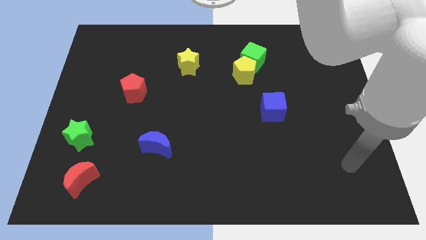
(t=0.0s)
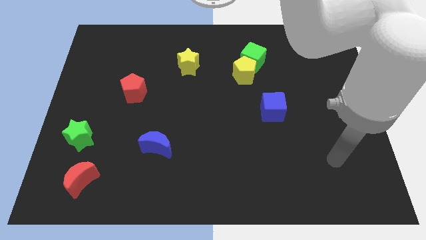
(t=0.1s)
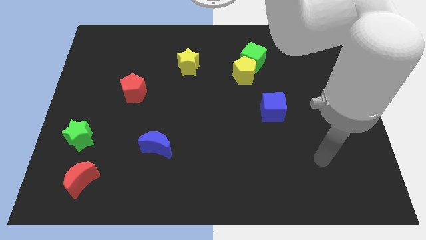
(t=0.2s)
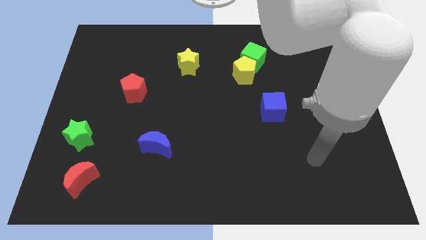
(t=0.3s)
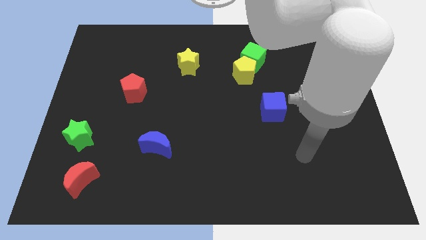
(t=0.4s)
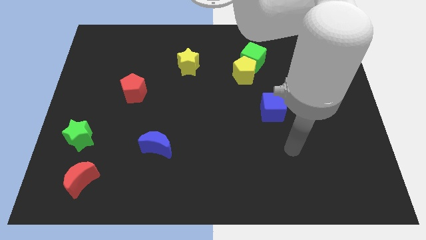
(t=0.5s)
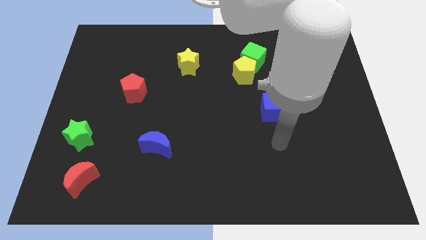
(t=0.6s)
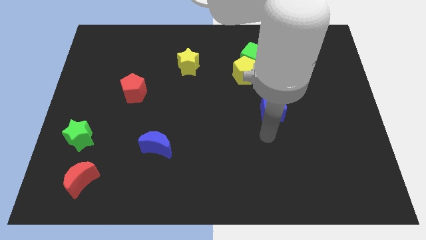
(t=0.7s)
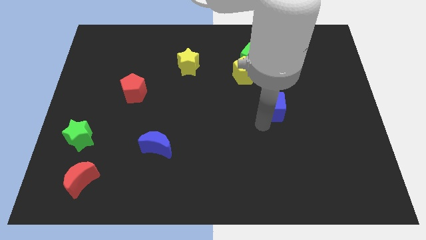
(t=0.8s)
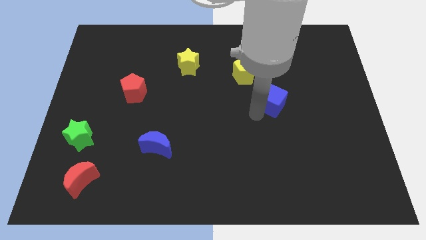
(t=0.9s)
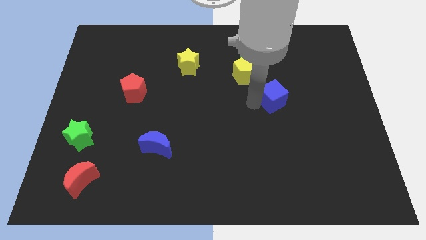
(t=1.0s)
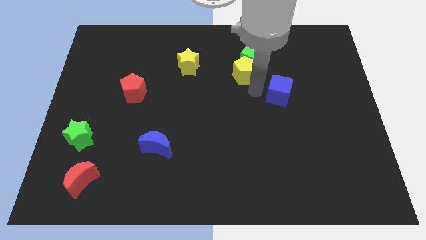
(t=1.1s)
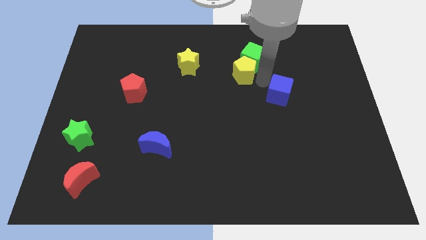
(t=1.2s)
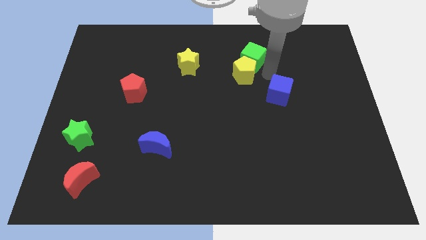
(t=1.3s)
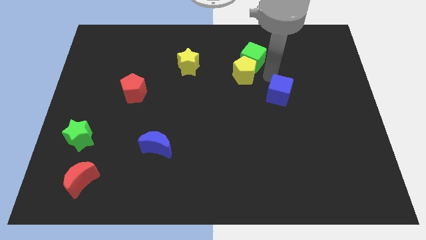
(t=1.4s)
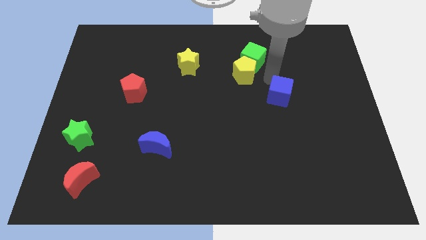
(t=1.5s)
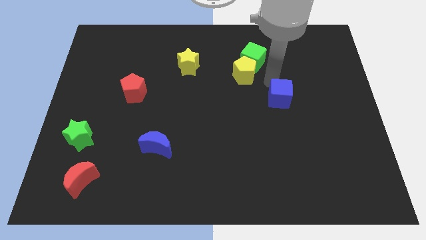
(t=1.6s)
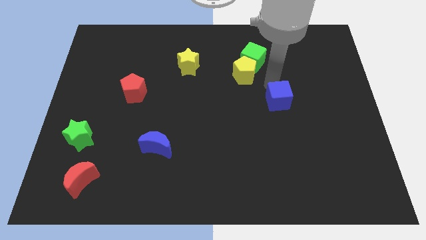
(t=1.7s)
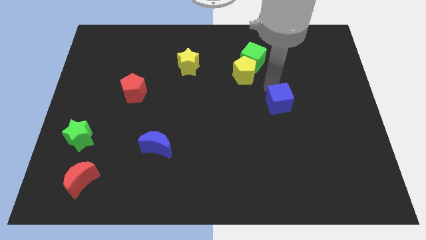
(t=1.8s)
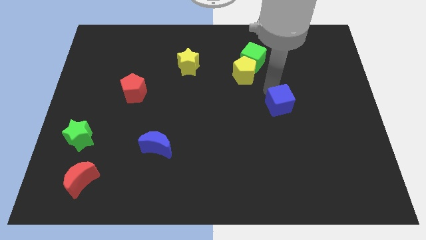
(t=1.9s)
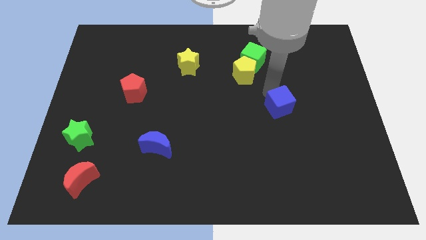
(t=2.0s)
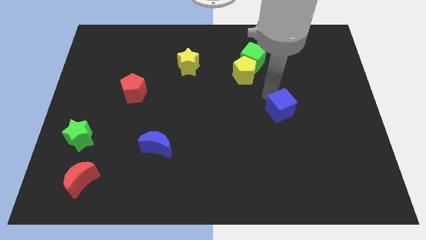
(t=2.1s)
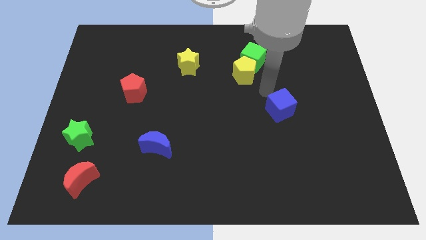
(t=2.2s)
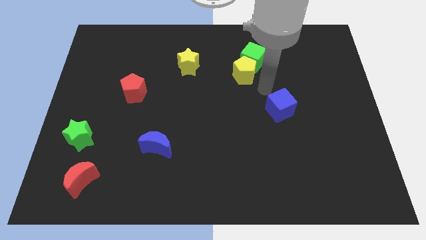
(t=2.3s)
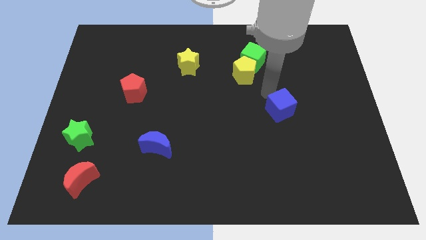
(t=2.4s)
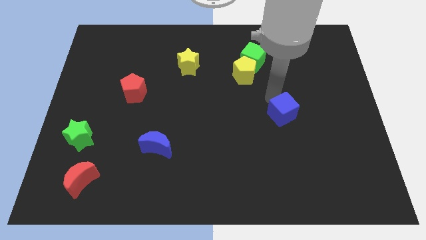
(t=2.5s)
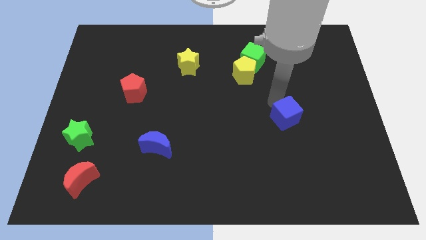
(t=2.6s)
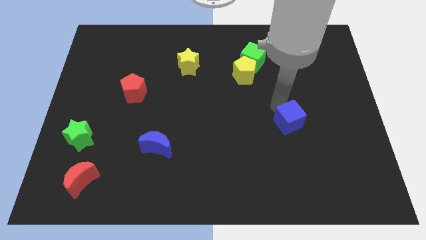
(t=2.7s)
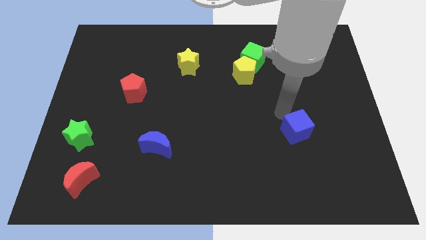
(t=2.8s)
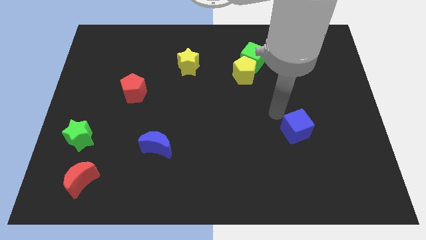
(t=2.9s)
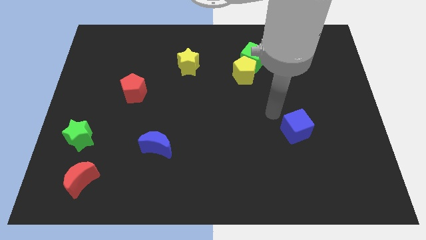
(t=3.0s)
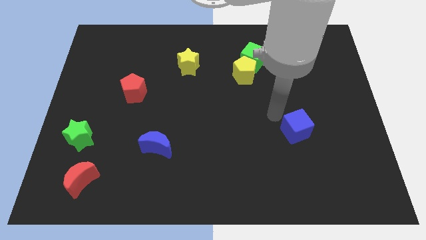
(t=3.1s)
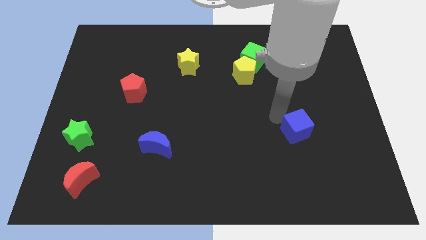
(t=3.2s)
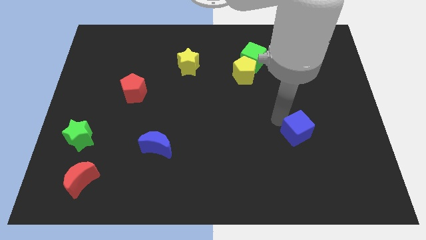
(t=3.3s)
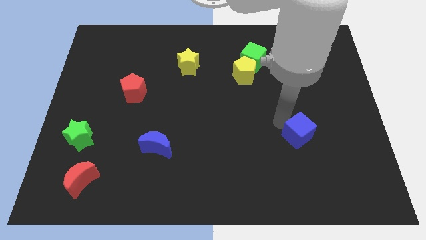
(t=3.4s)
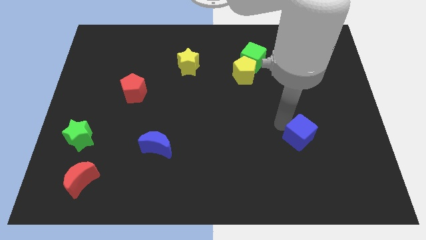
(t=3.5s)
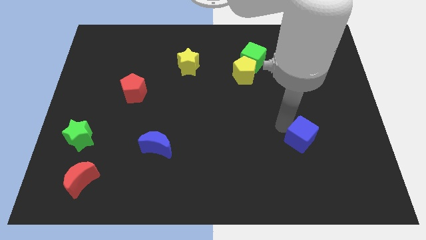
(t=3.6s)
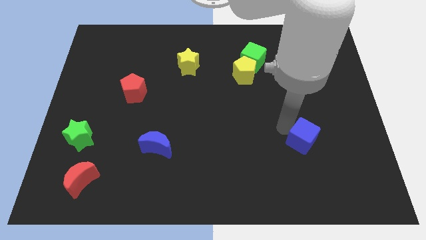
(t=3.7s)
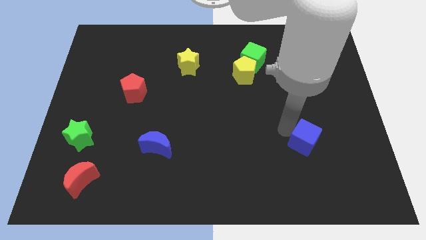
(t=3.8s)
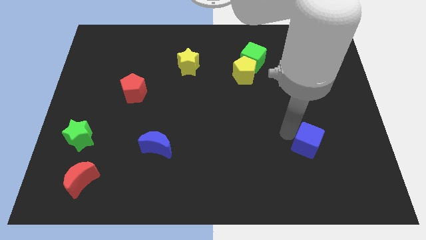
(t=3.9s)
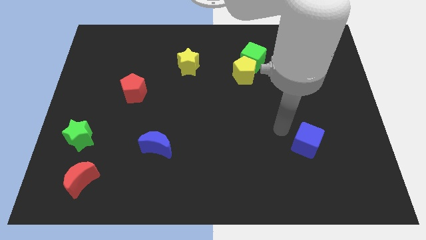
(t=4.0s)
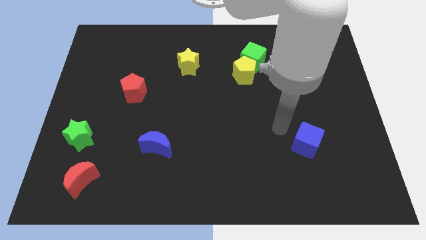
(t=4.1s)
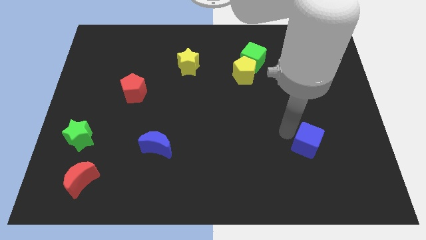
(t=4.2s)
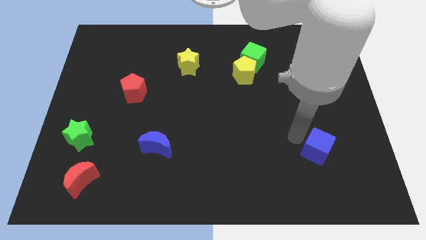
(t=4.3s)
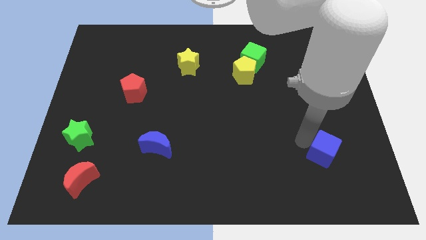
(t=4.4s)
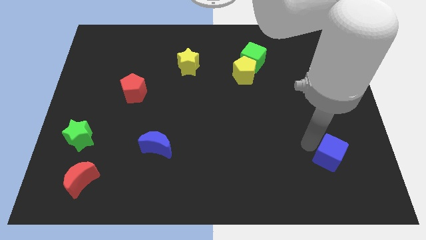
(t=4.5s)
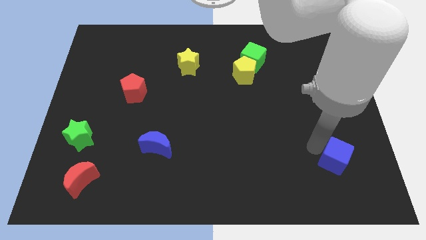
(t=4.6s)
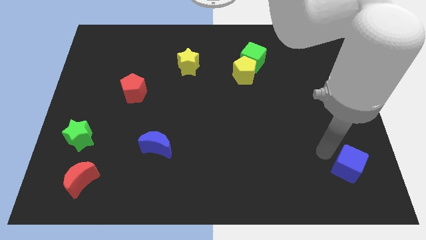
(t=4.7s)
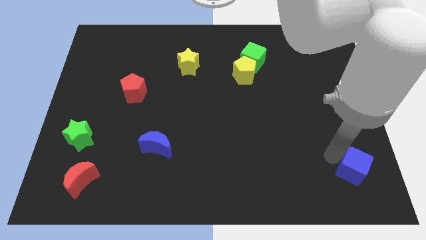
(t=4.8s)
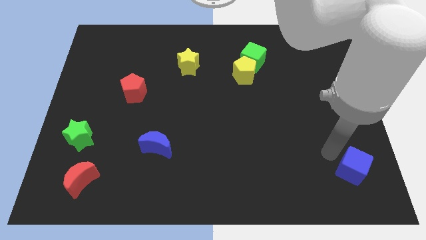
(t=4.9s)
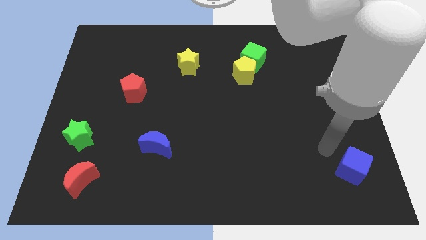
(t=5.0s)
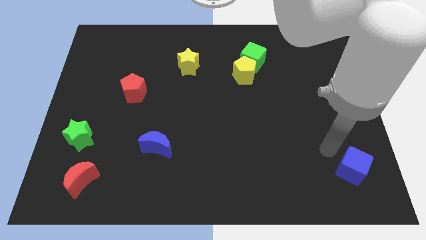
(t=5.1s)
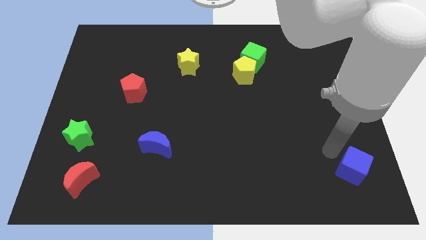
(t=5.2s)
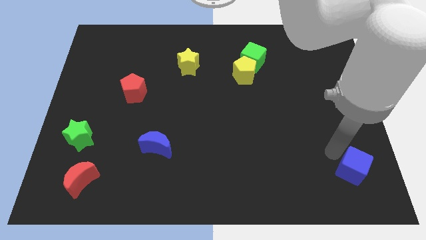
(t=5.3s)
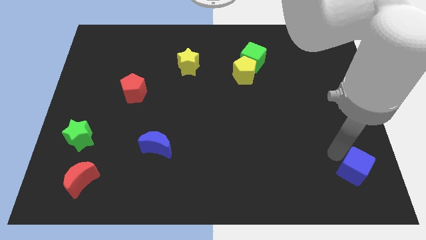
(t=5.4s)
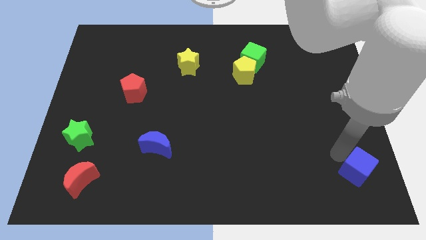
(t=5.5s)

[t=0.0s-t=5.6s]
slide the blue cube to the bottom right corner

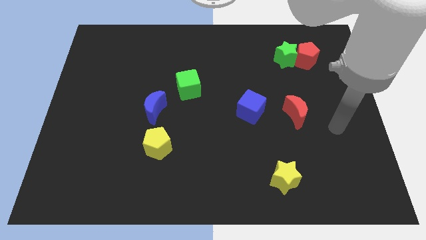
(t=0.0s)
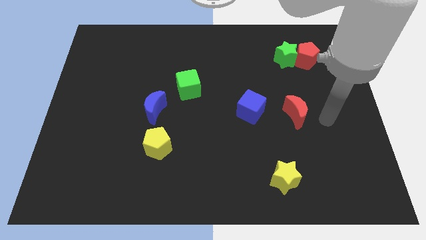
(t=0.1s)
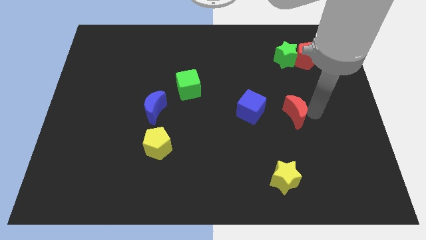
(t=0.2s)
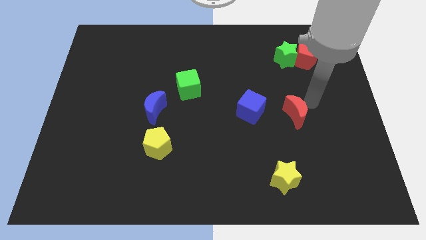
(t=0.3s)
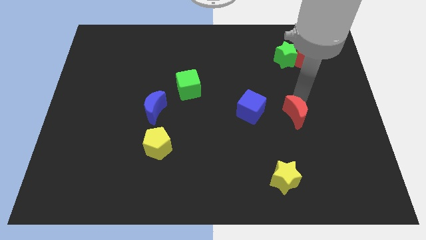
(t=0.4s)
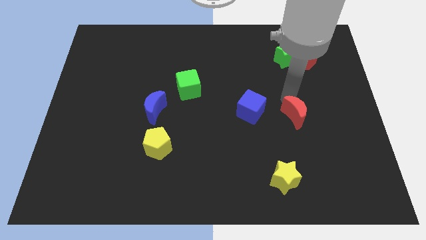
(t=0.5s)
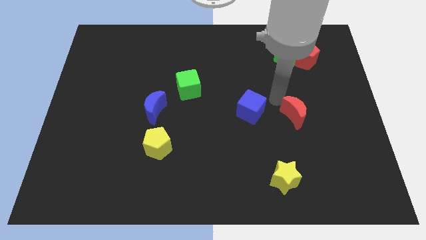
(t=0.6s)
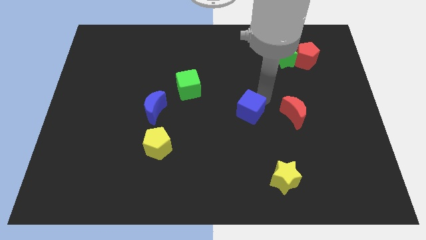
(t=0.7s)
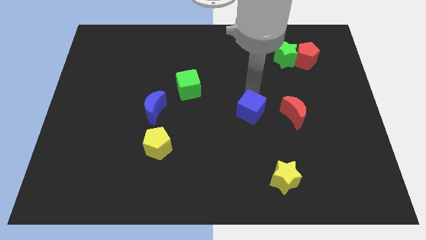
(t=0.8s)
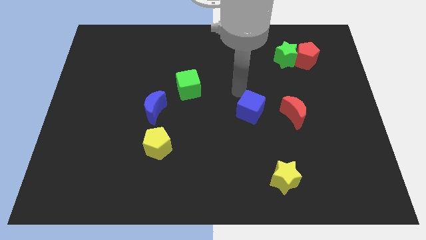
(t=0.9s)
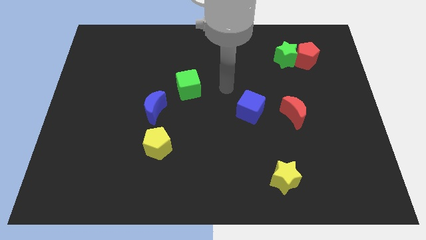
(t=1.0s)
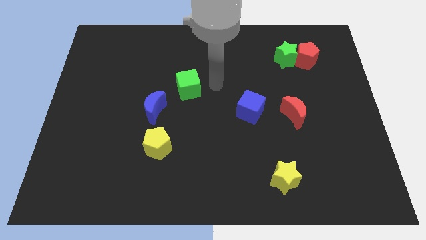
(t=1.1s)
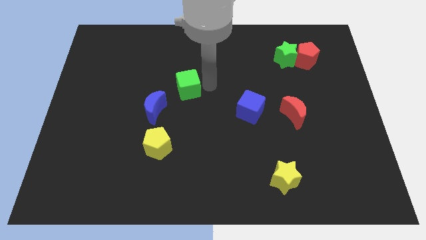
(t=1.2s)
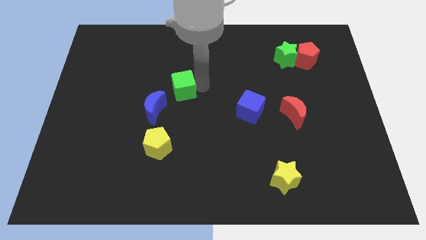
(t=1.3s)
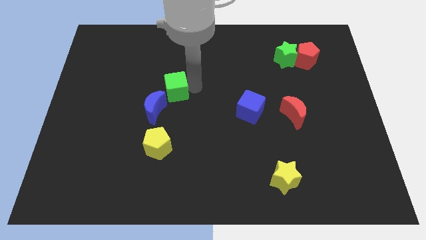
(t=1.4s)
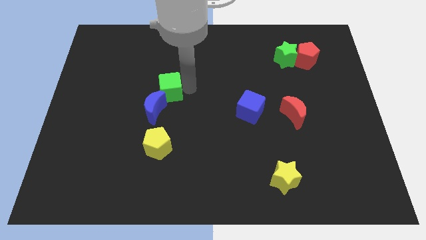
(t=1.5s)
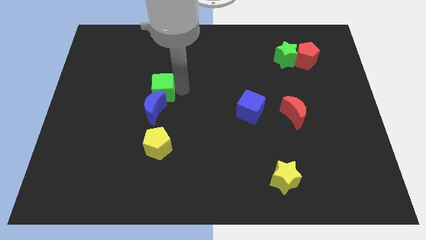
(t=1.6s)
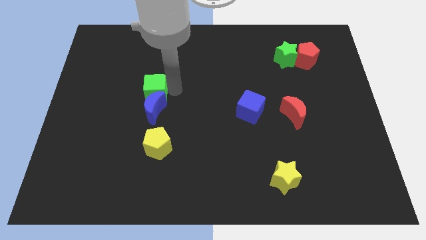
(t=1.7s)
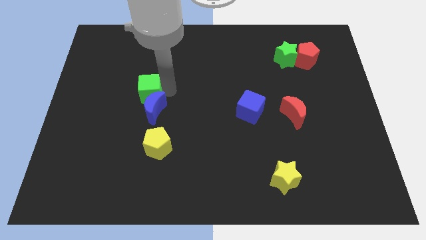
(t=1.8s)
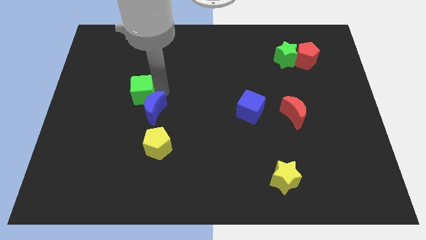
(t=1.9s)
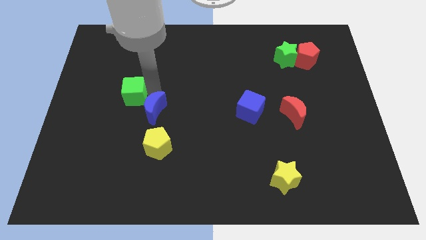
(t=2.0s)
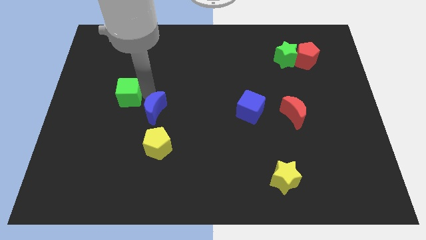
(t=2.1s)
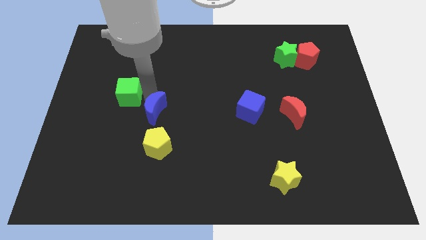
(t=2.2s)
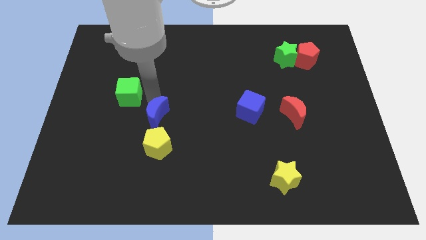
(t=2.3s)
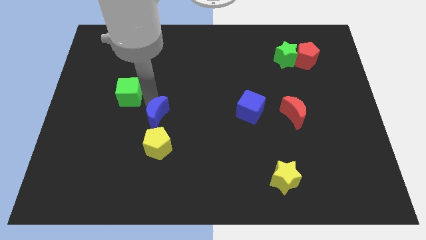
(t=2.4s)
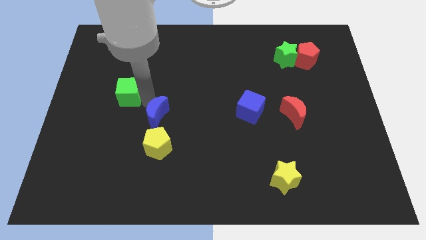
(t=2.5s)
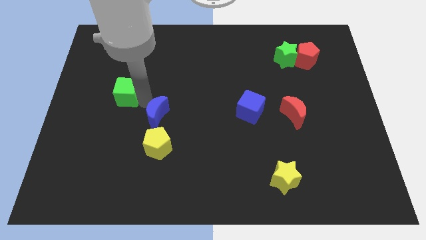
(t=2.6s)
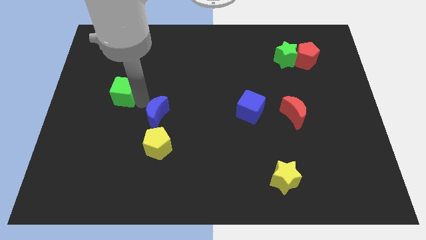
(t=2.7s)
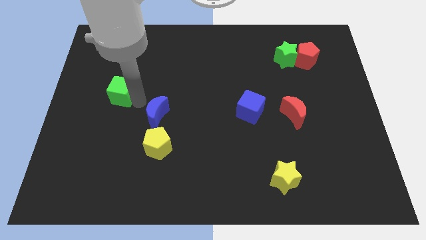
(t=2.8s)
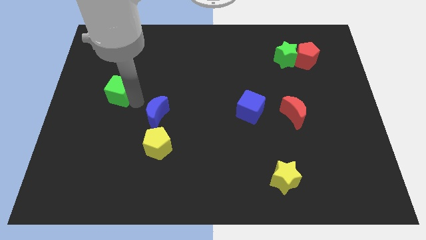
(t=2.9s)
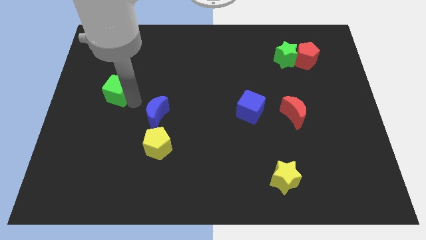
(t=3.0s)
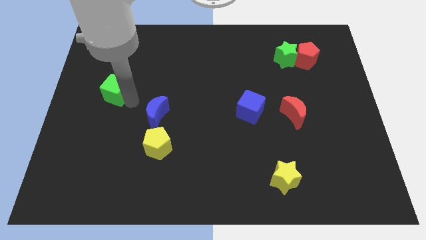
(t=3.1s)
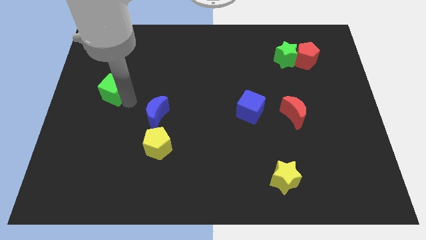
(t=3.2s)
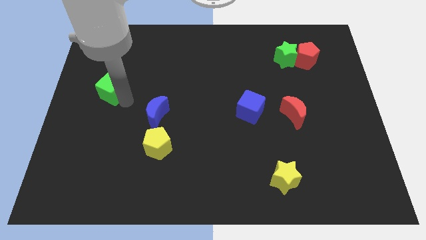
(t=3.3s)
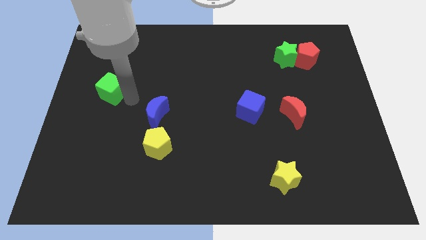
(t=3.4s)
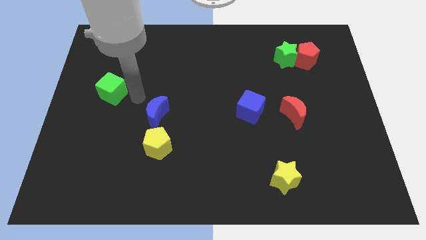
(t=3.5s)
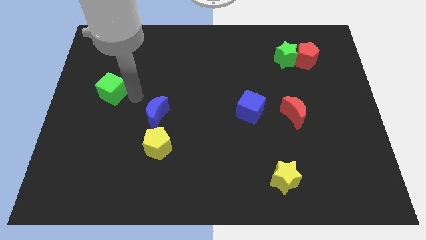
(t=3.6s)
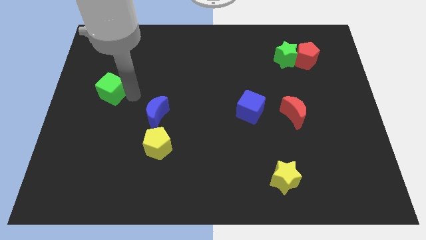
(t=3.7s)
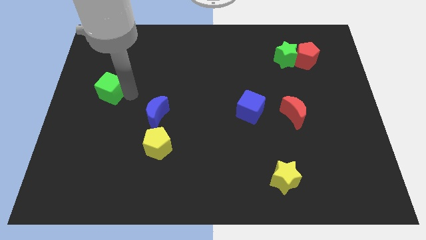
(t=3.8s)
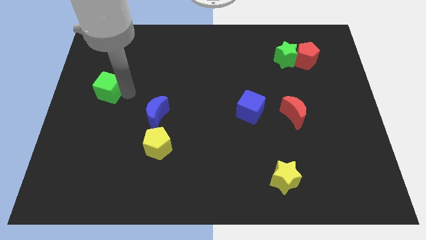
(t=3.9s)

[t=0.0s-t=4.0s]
move the green cube to the left side of the board
